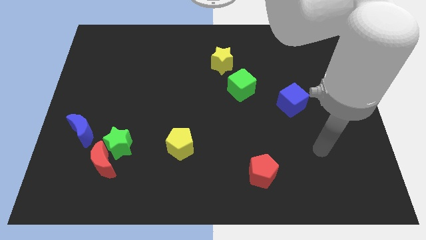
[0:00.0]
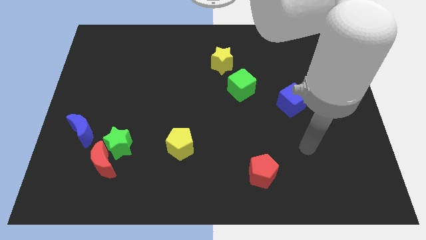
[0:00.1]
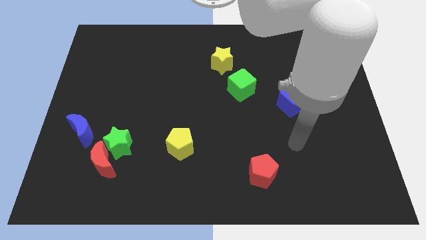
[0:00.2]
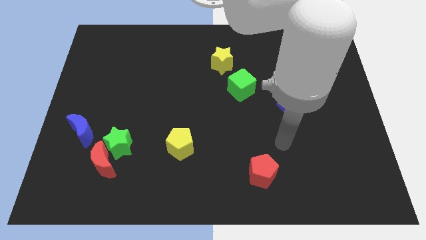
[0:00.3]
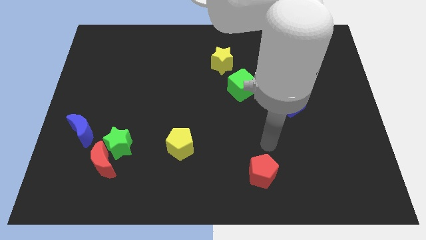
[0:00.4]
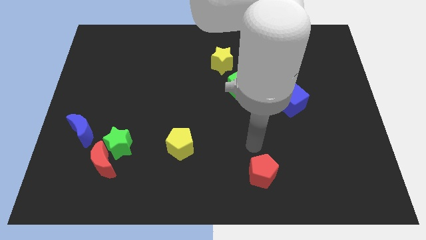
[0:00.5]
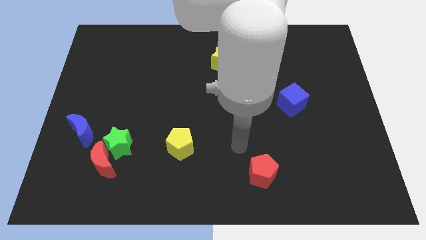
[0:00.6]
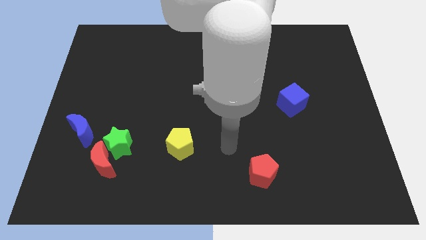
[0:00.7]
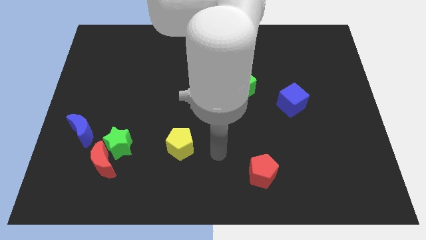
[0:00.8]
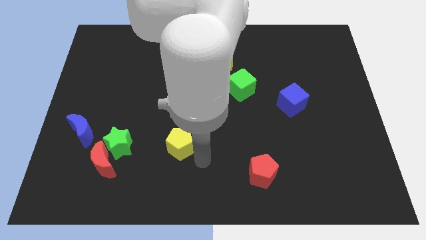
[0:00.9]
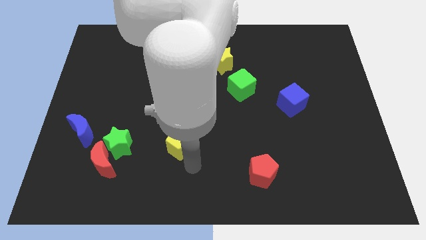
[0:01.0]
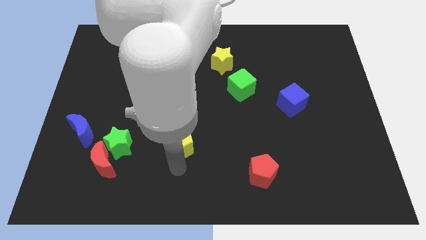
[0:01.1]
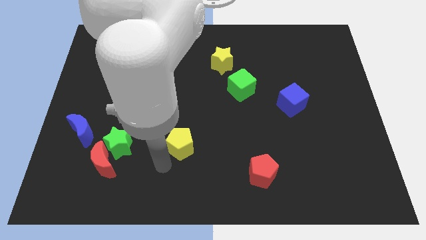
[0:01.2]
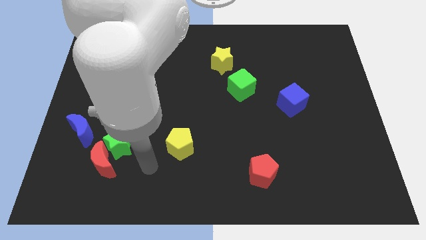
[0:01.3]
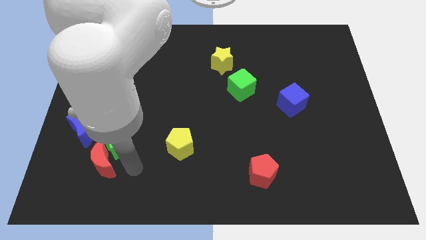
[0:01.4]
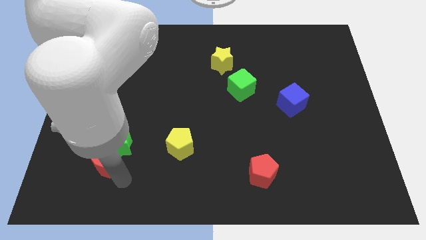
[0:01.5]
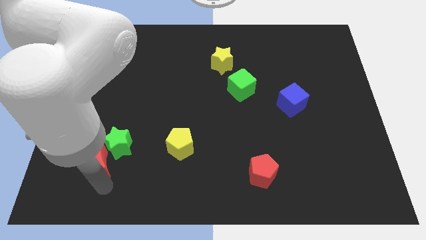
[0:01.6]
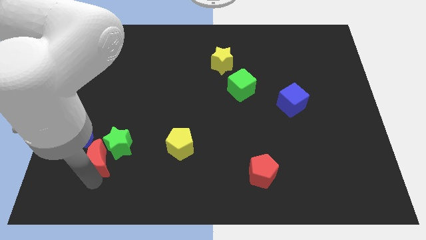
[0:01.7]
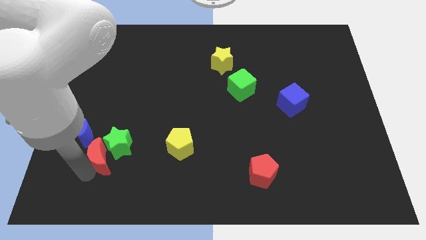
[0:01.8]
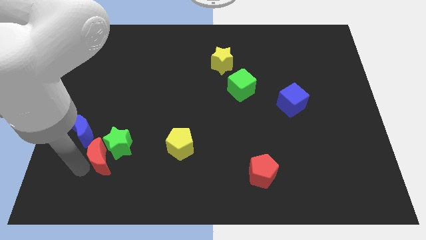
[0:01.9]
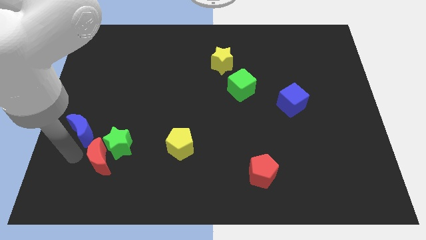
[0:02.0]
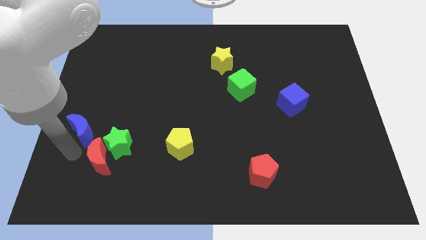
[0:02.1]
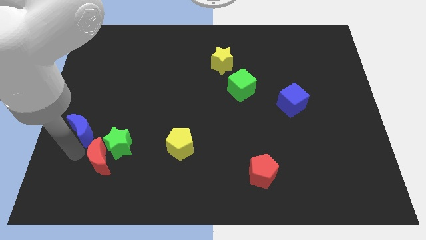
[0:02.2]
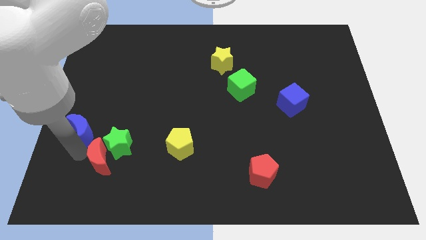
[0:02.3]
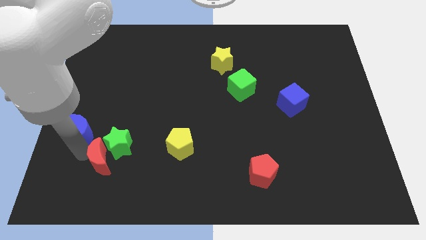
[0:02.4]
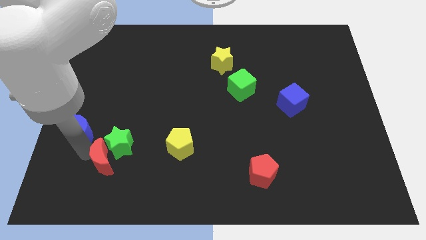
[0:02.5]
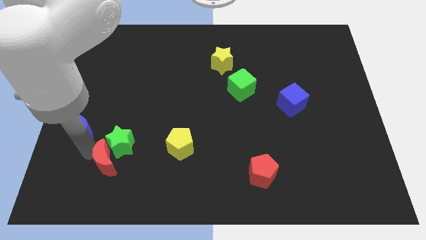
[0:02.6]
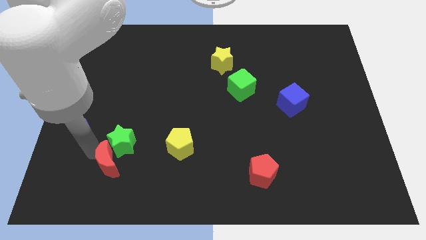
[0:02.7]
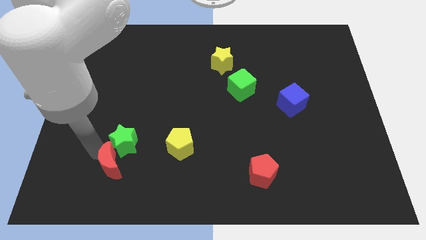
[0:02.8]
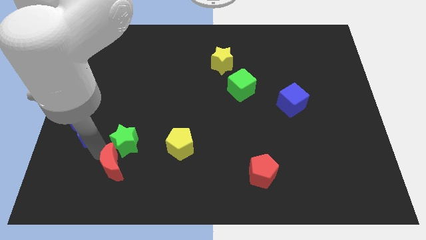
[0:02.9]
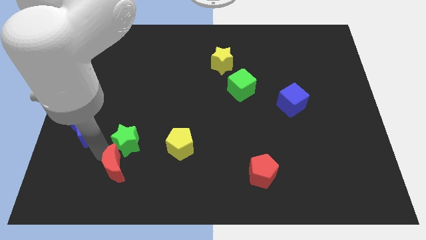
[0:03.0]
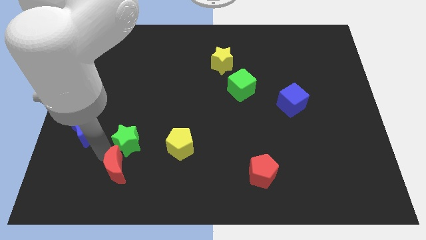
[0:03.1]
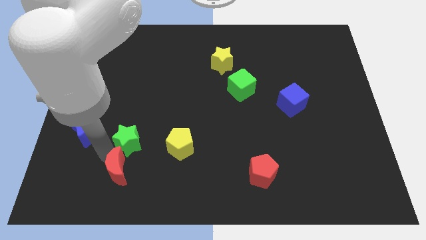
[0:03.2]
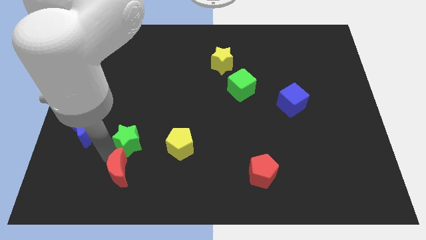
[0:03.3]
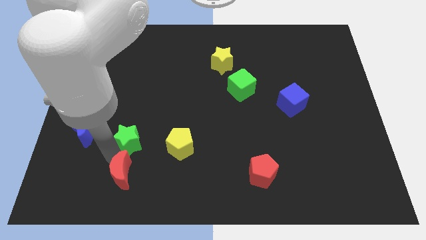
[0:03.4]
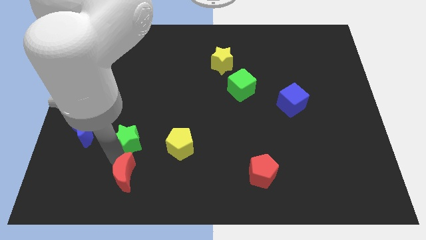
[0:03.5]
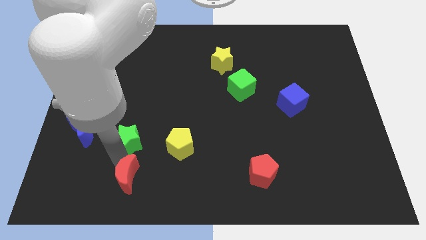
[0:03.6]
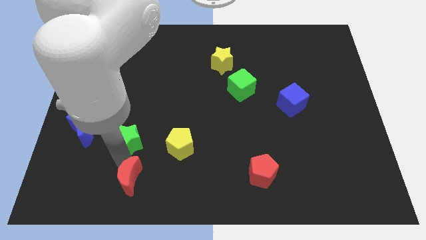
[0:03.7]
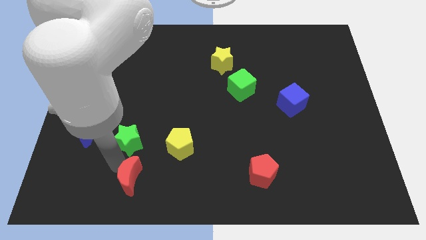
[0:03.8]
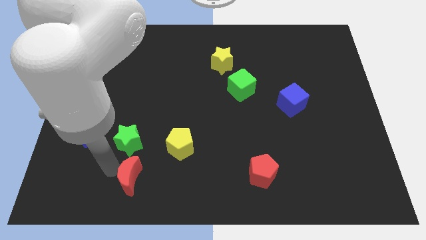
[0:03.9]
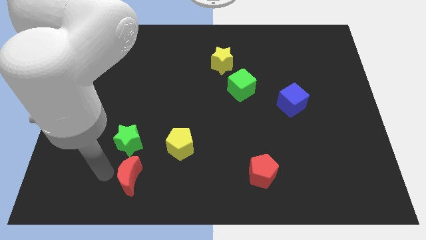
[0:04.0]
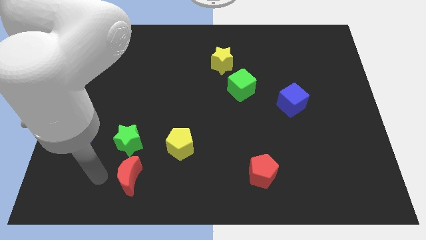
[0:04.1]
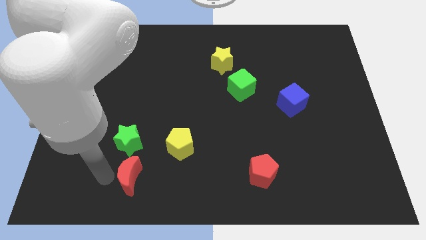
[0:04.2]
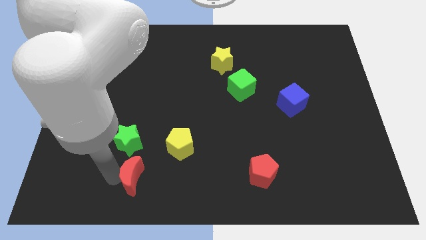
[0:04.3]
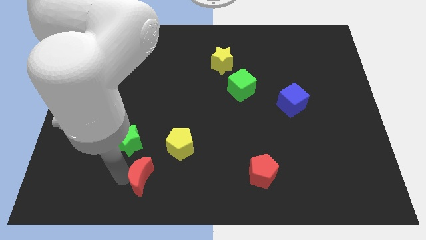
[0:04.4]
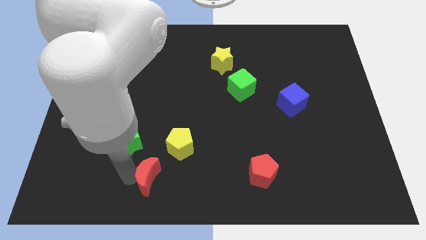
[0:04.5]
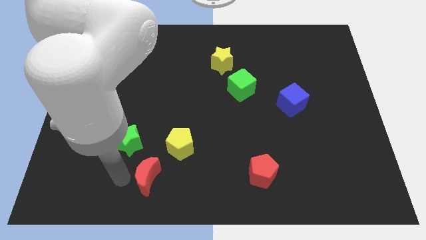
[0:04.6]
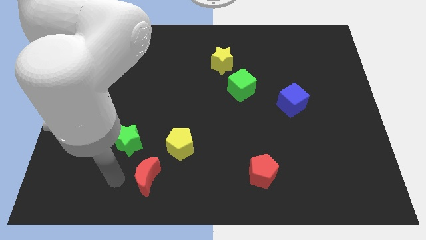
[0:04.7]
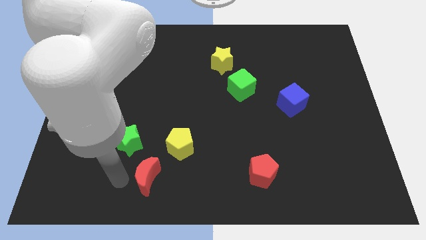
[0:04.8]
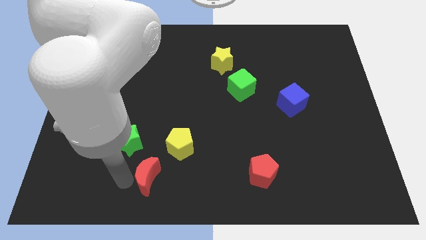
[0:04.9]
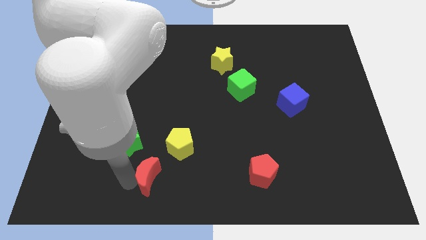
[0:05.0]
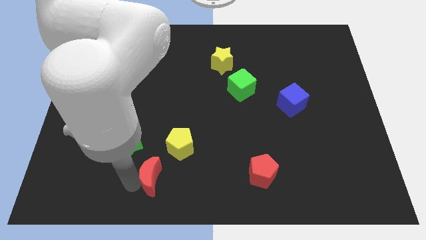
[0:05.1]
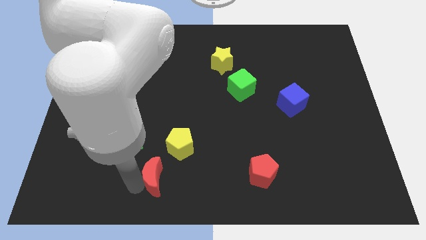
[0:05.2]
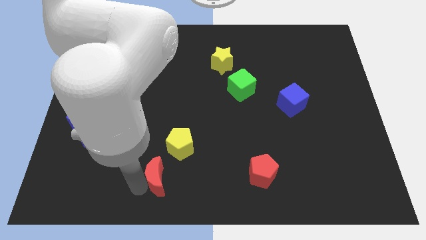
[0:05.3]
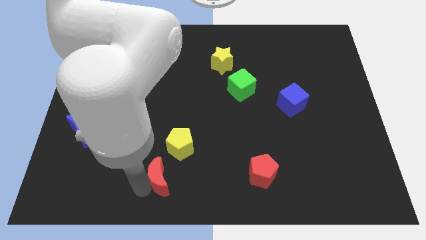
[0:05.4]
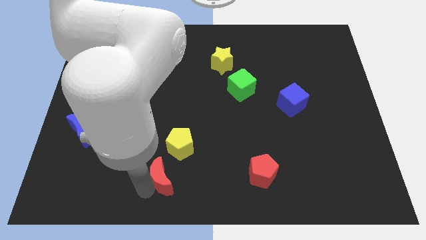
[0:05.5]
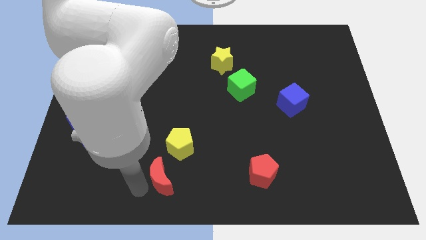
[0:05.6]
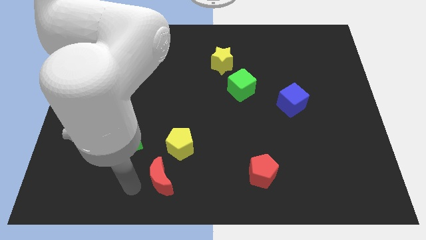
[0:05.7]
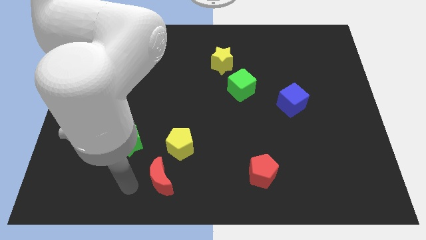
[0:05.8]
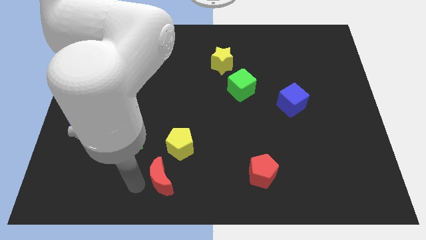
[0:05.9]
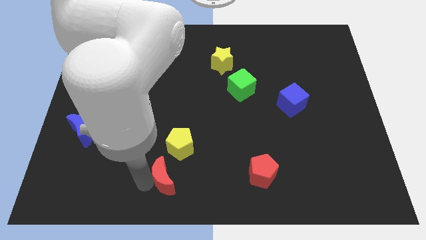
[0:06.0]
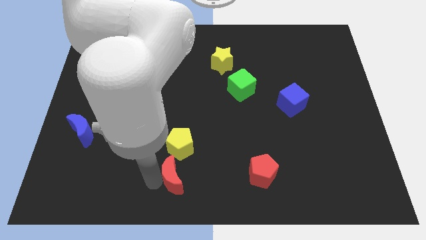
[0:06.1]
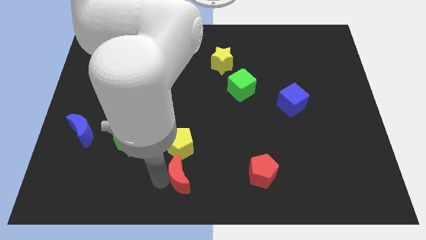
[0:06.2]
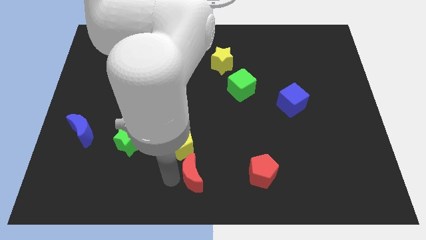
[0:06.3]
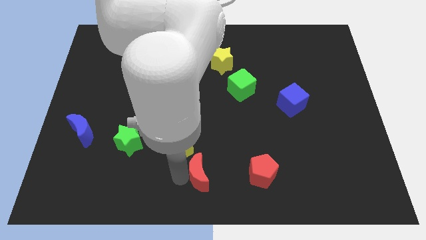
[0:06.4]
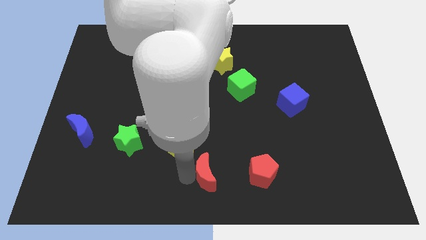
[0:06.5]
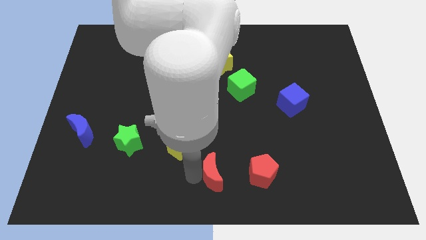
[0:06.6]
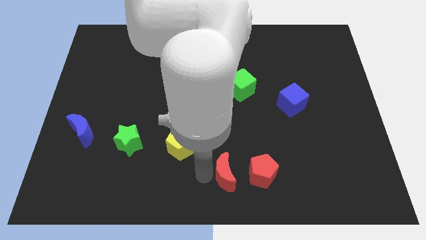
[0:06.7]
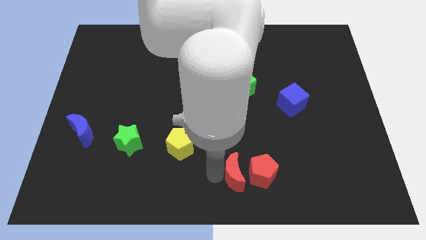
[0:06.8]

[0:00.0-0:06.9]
slide the red moon next to the red pentagon
